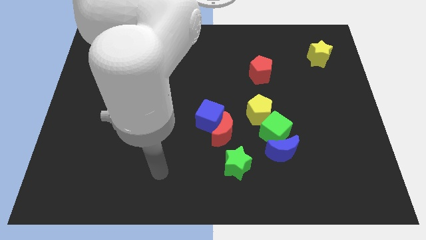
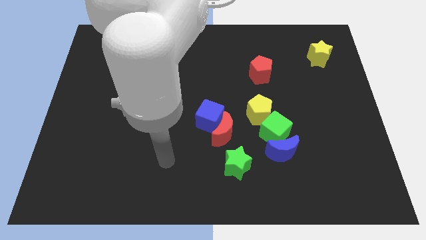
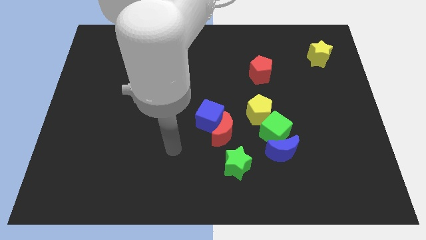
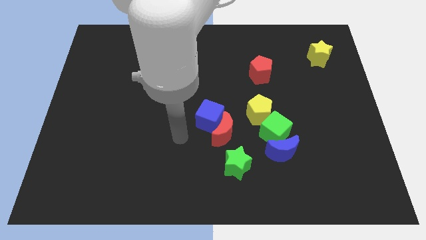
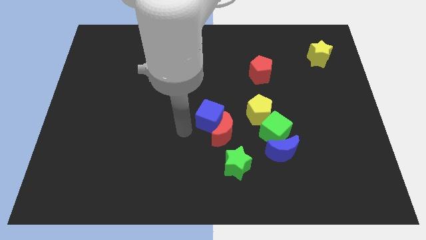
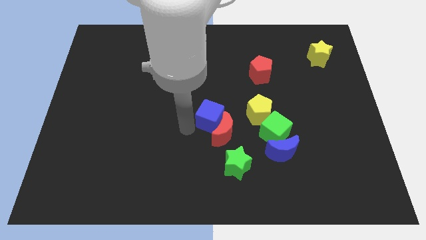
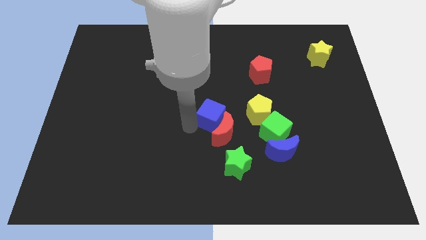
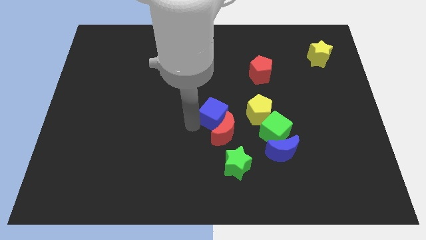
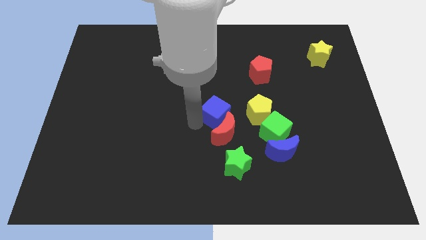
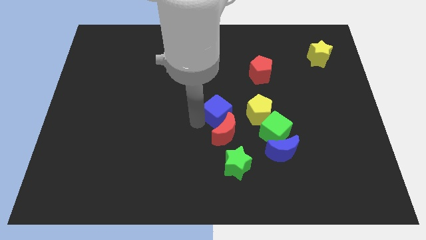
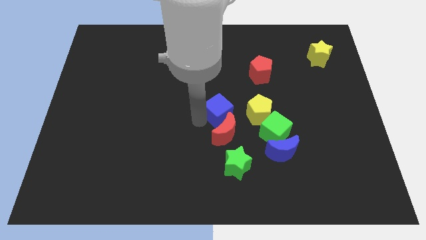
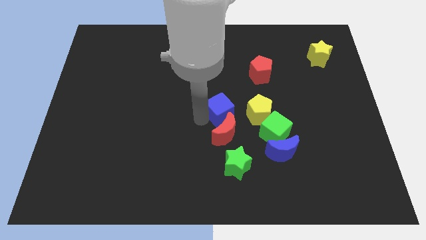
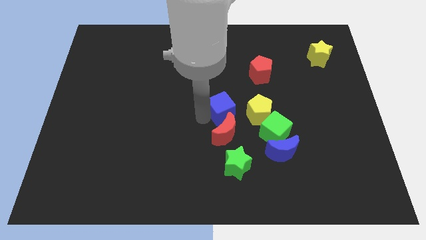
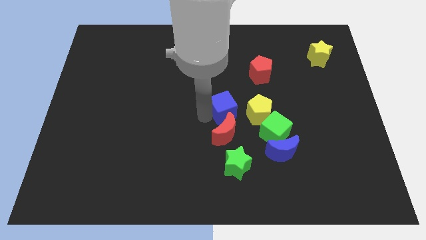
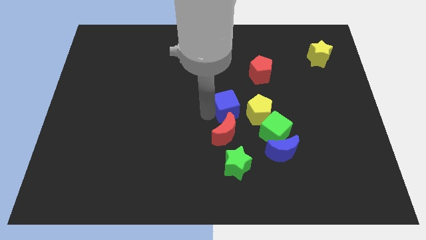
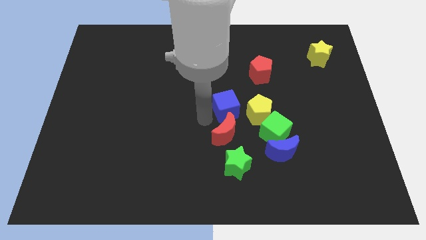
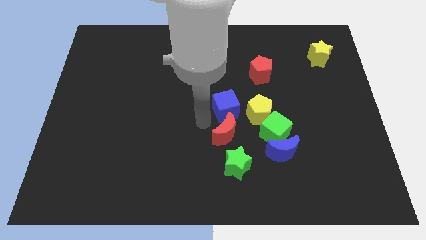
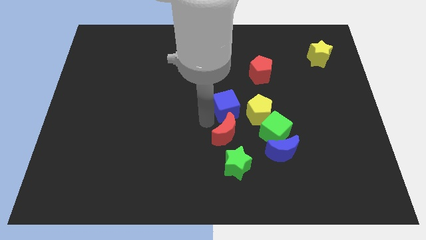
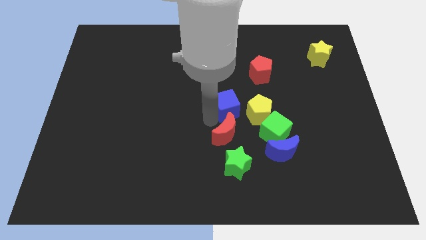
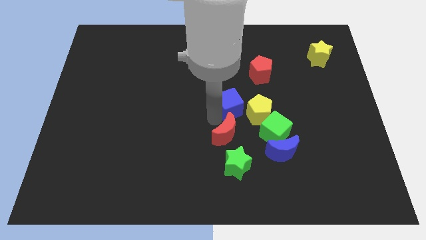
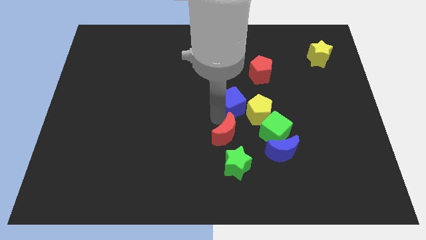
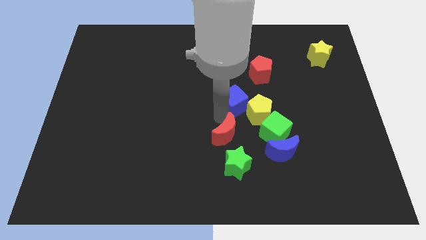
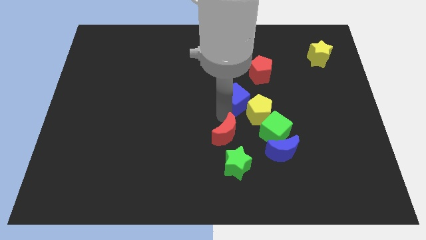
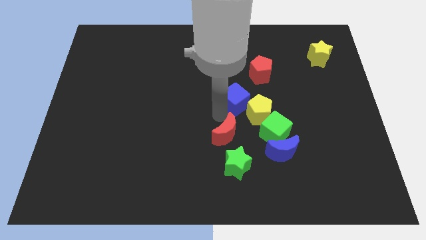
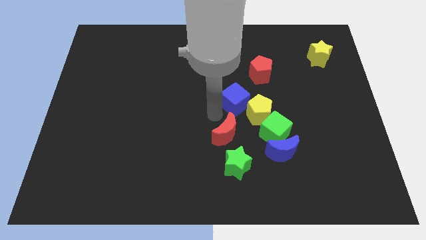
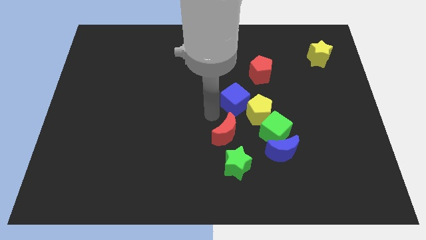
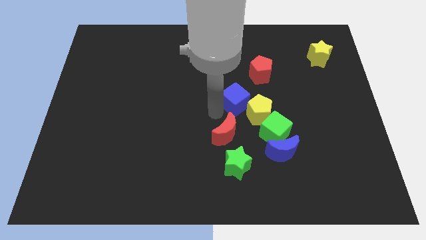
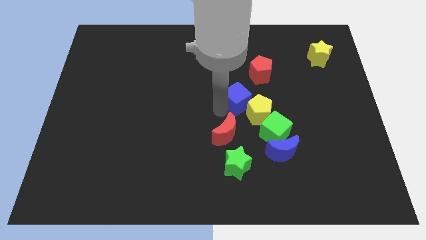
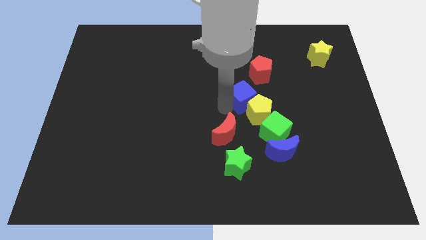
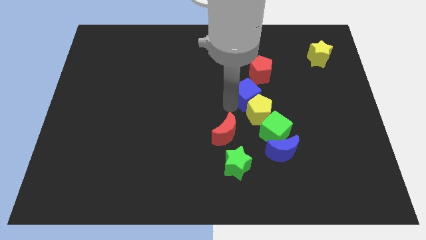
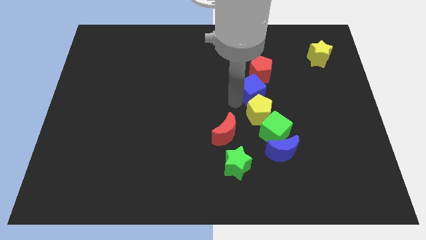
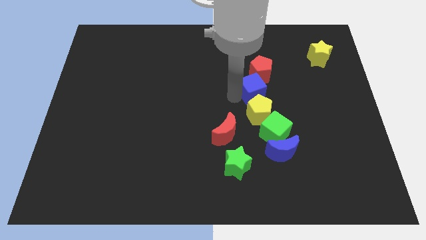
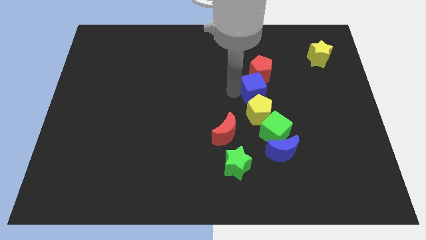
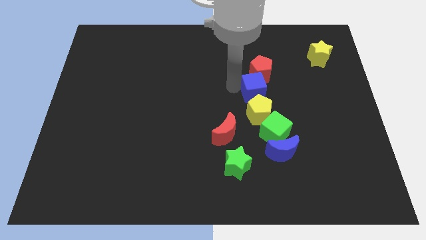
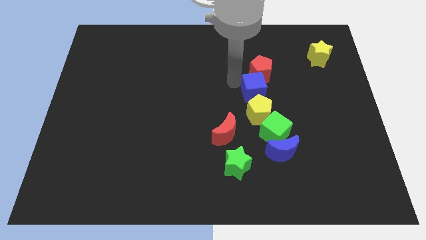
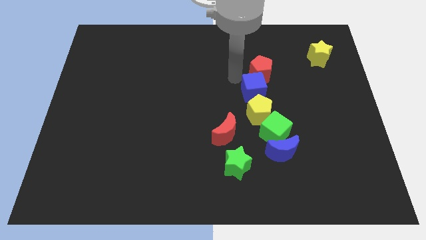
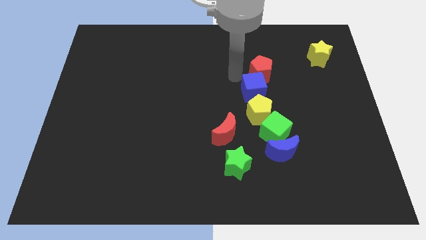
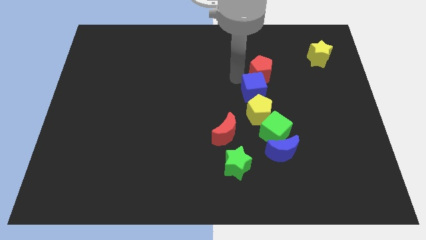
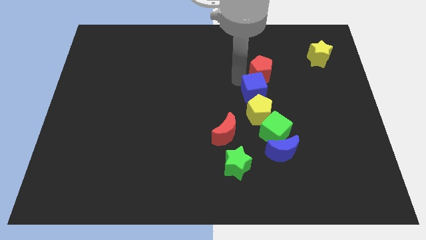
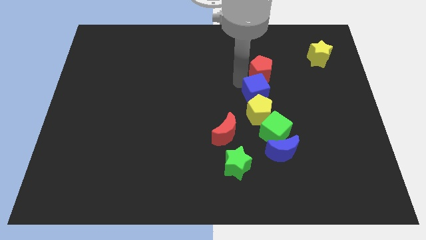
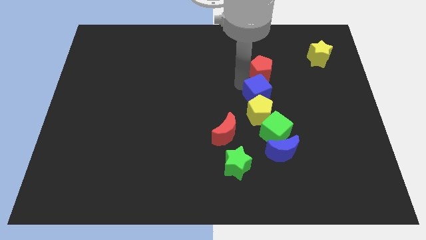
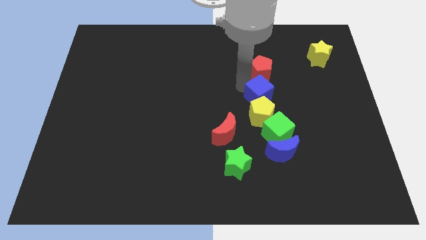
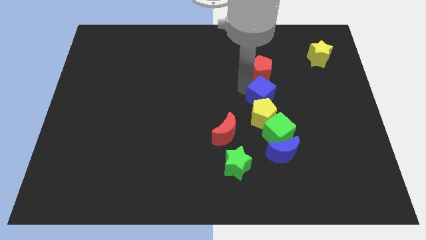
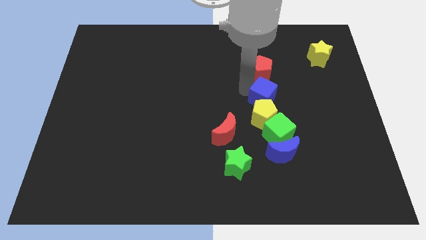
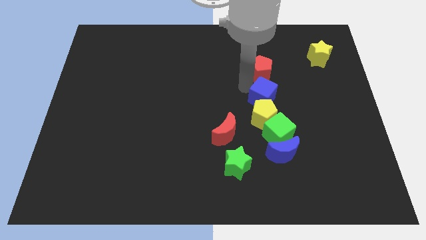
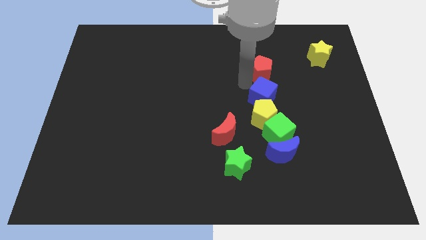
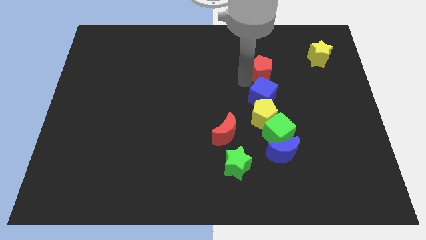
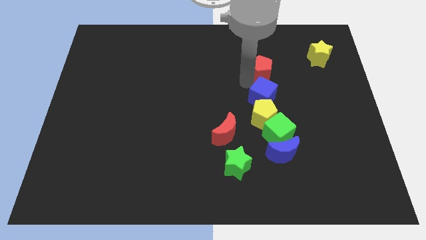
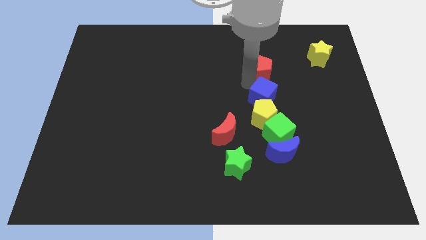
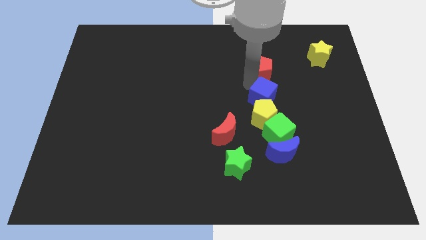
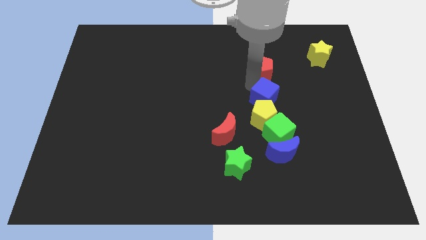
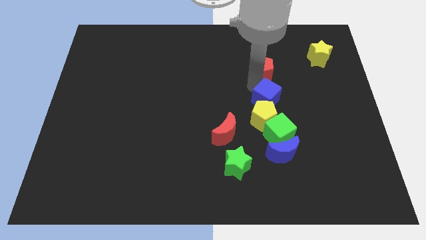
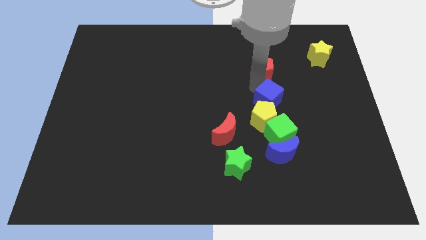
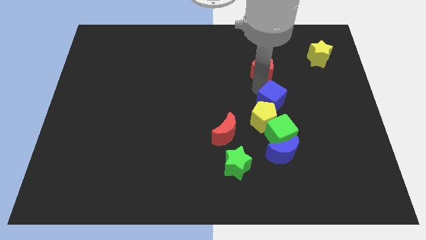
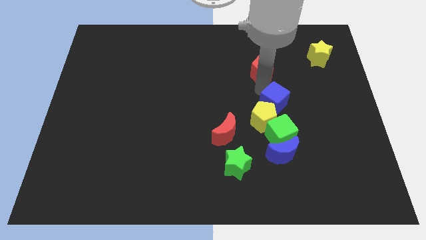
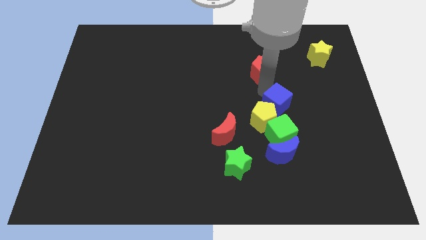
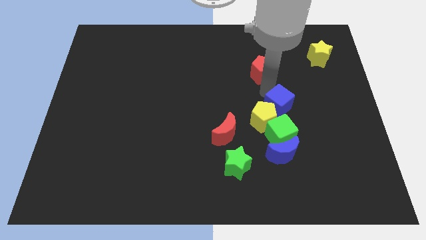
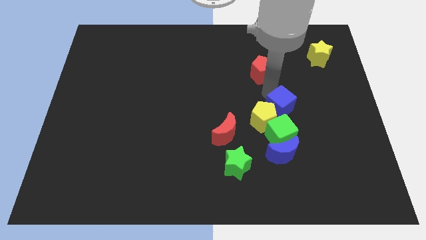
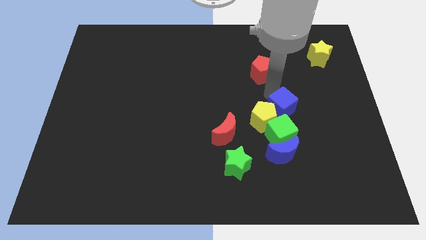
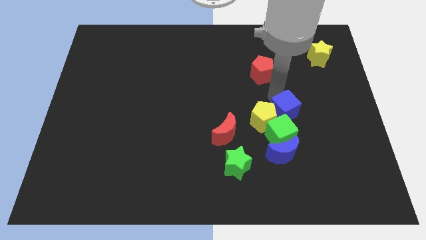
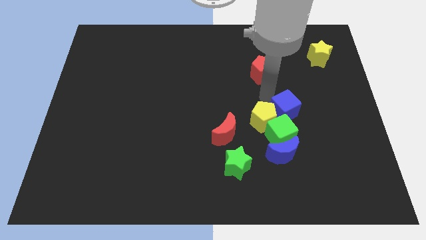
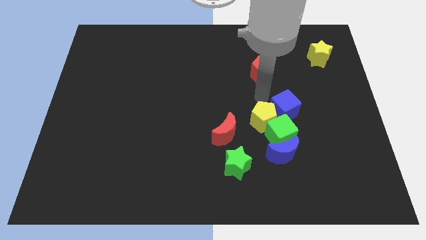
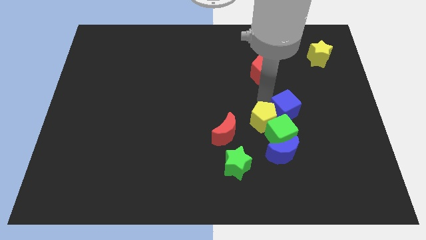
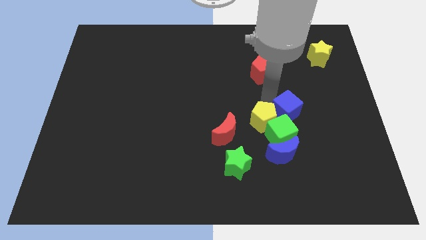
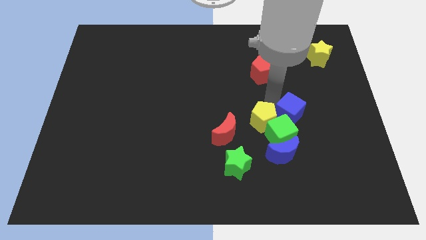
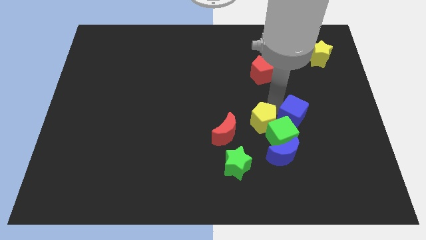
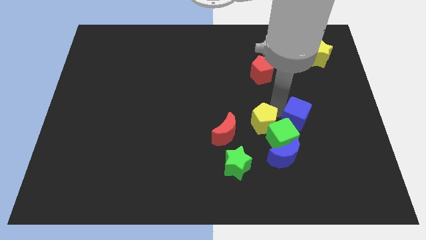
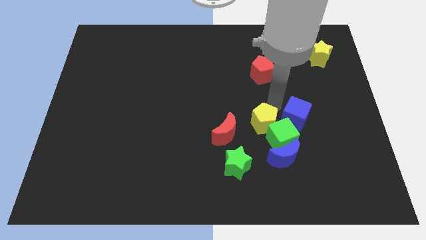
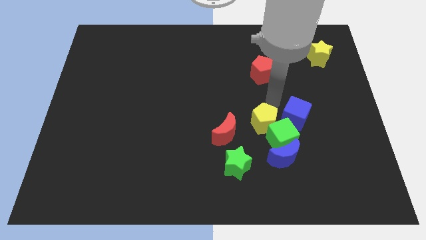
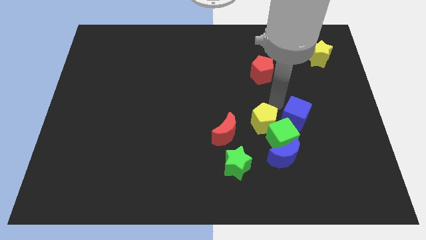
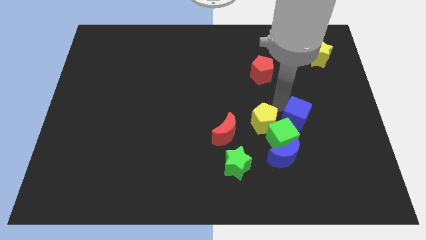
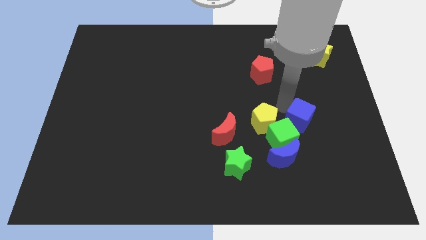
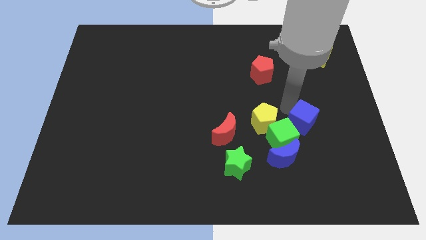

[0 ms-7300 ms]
move the blue cube right of the green cube

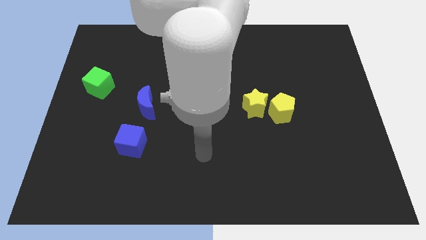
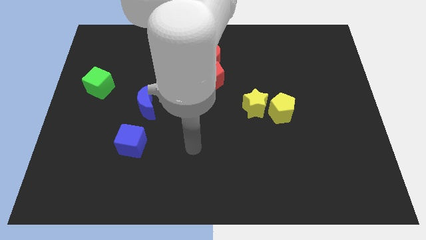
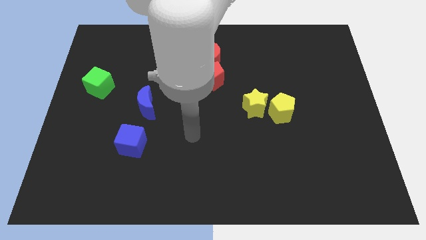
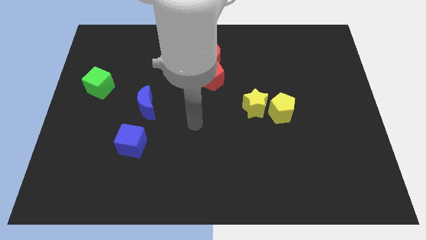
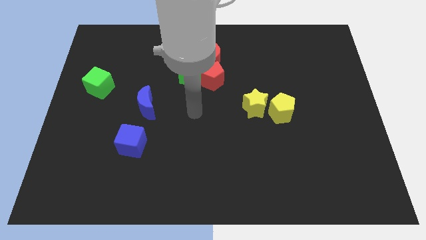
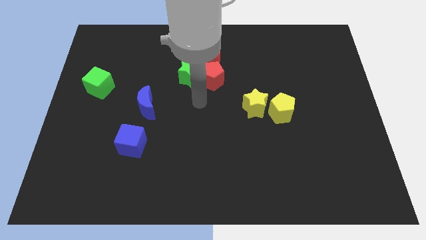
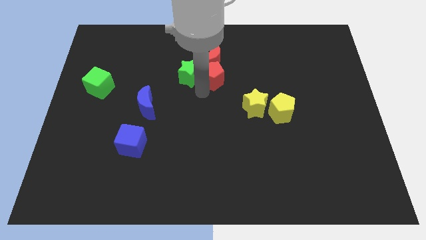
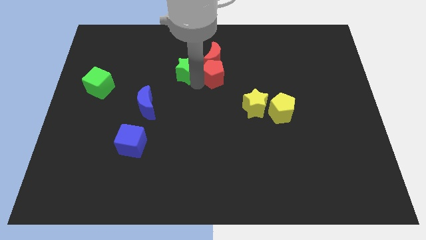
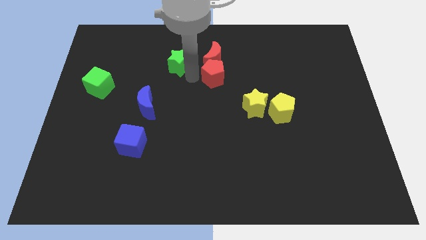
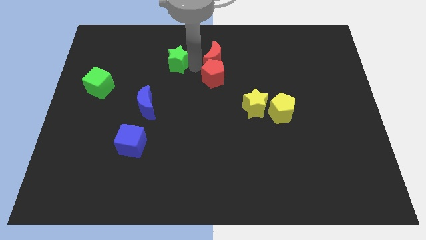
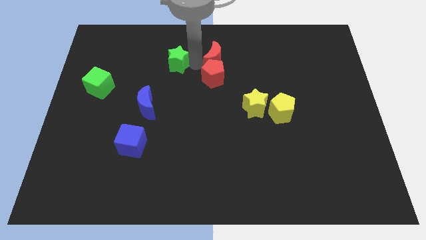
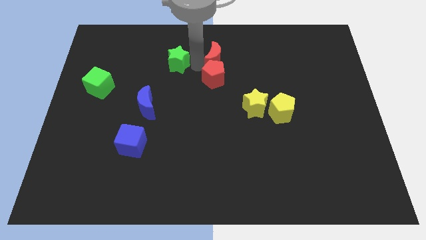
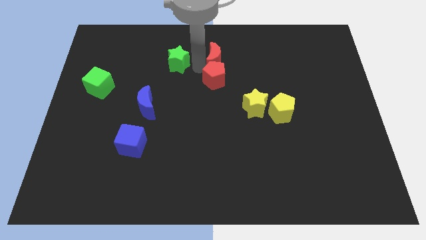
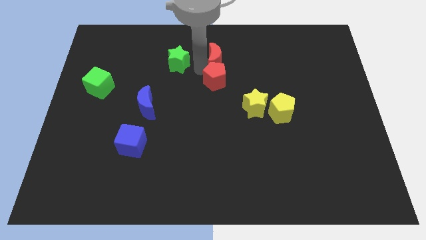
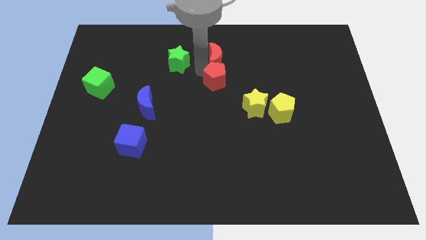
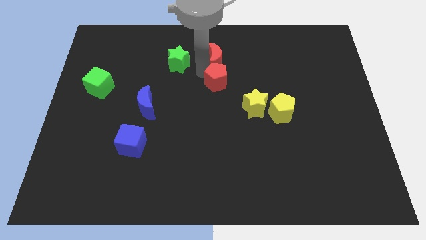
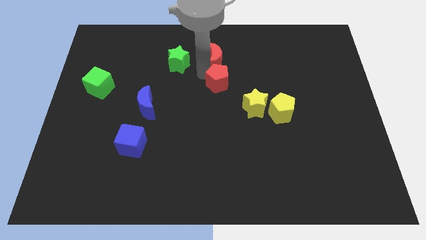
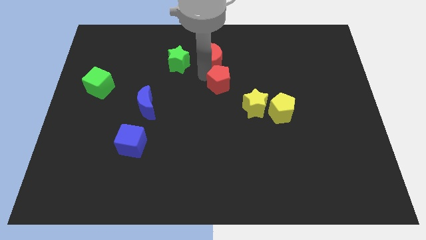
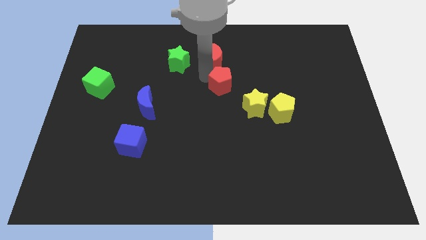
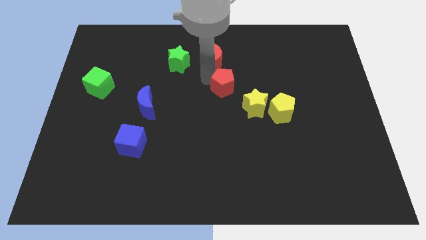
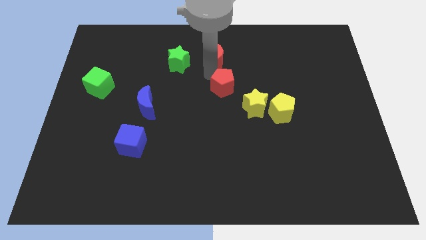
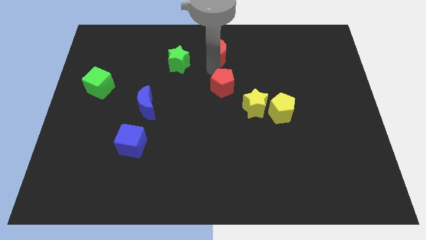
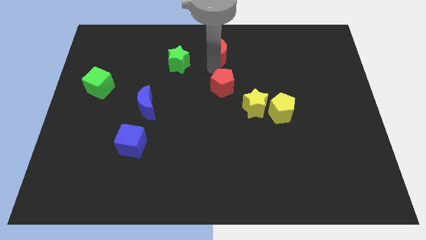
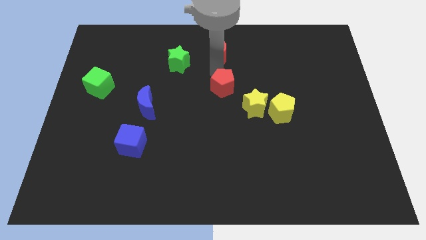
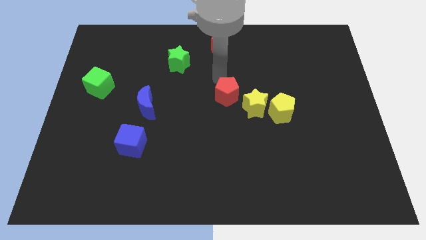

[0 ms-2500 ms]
put the red pentagon just left of the yellow pentagon
